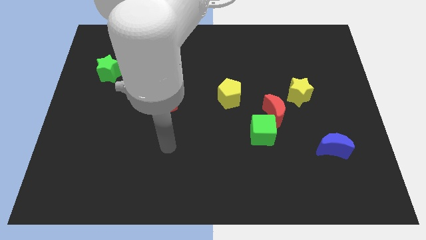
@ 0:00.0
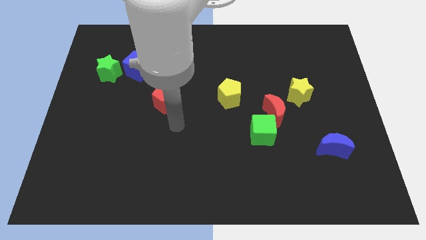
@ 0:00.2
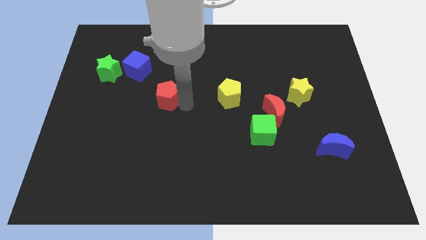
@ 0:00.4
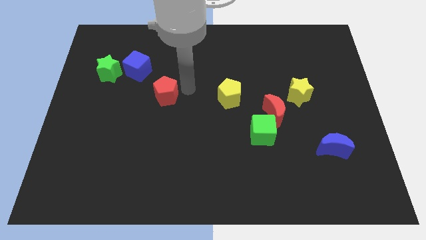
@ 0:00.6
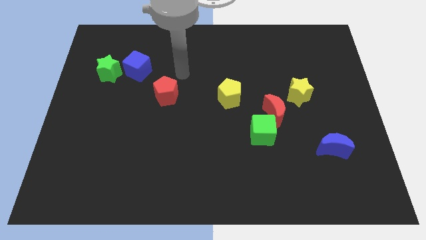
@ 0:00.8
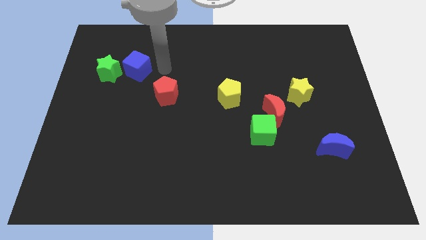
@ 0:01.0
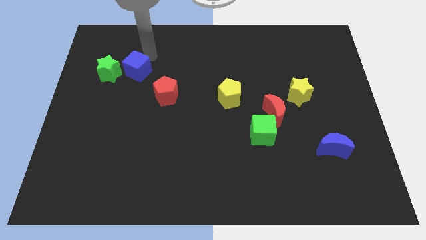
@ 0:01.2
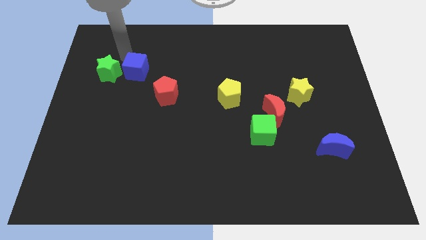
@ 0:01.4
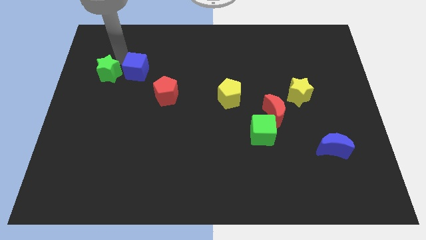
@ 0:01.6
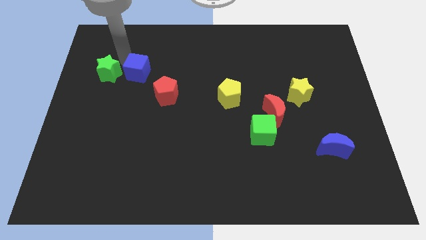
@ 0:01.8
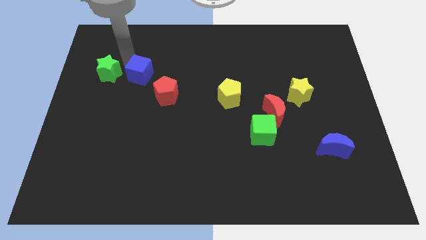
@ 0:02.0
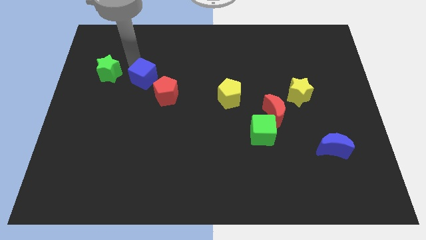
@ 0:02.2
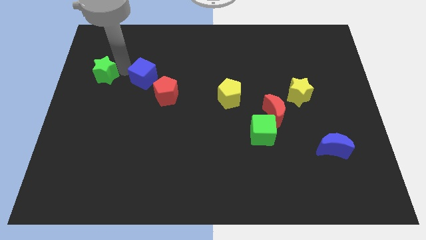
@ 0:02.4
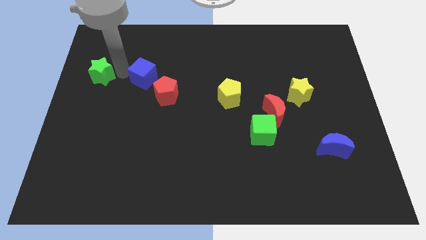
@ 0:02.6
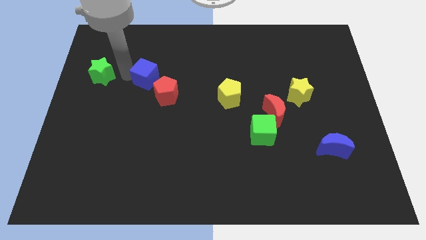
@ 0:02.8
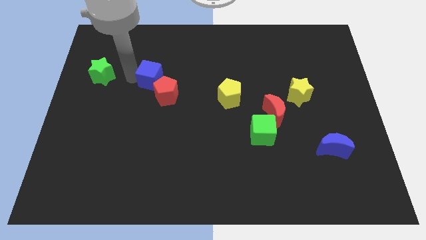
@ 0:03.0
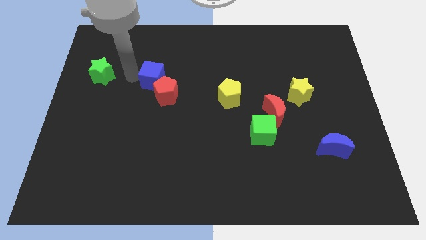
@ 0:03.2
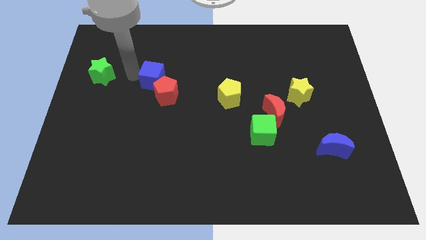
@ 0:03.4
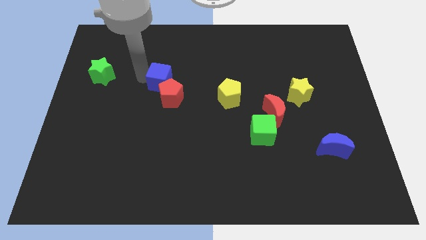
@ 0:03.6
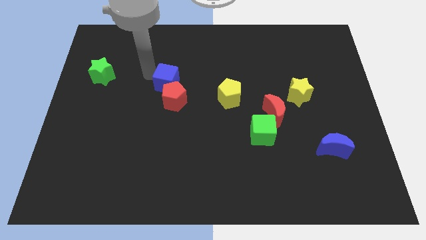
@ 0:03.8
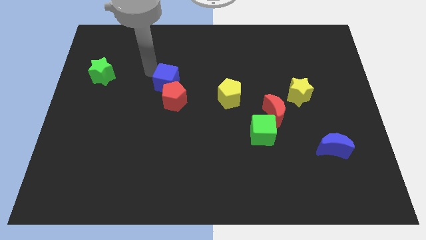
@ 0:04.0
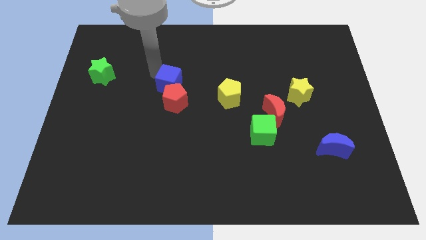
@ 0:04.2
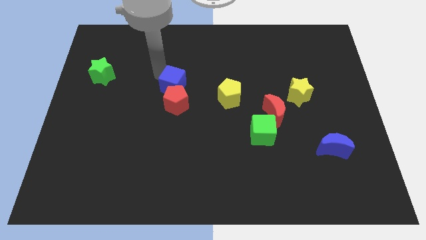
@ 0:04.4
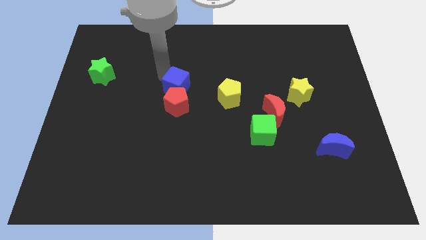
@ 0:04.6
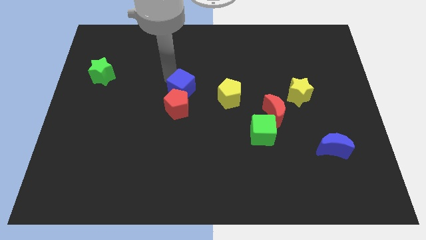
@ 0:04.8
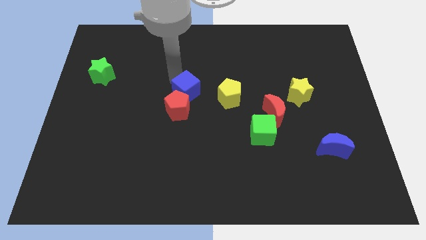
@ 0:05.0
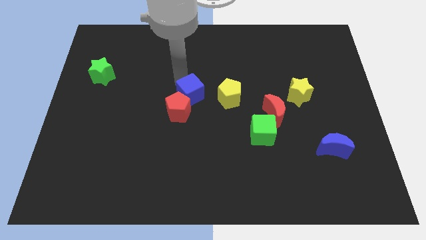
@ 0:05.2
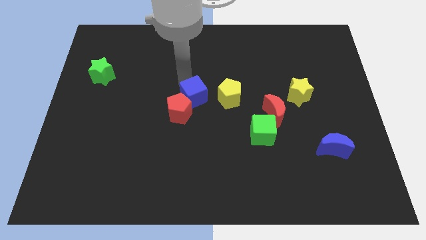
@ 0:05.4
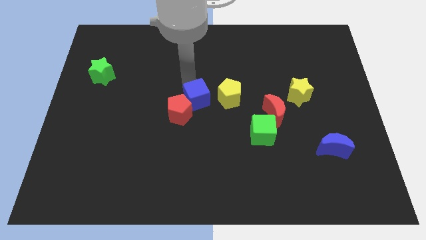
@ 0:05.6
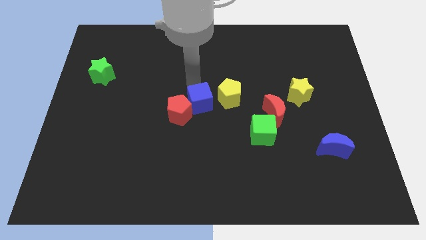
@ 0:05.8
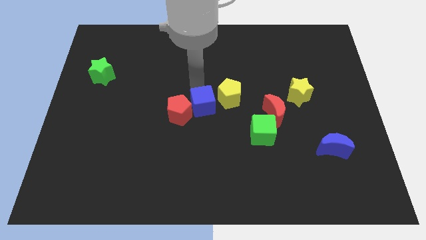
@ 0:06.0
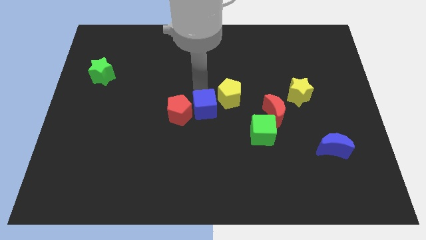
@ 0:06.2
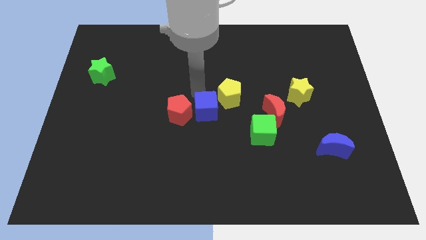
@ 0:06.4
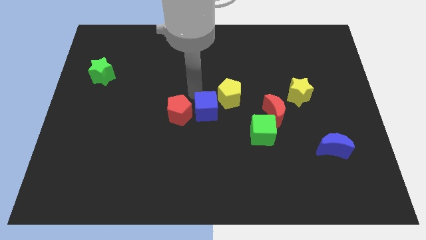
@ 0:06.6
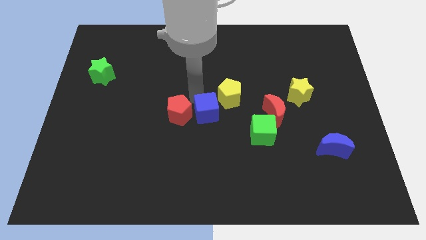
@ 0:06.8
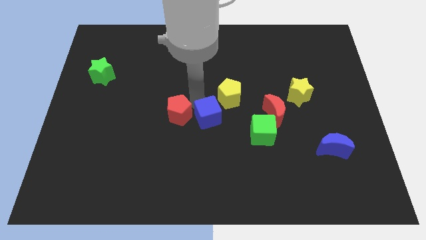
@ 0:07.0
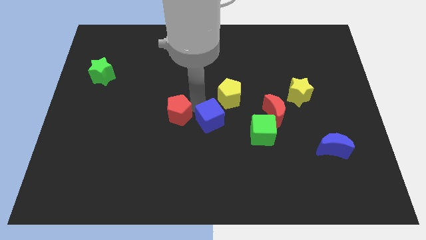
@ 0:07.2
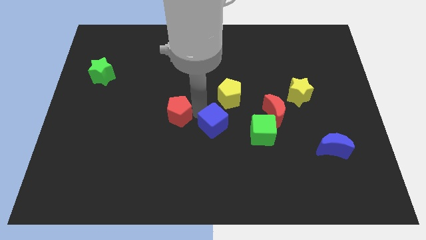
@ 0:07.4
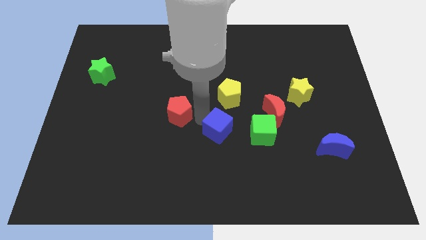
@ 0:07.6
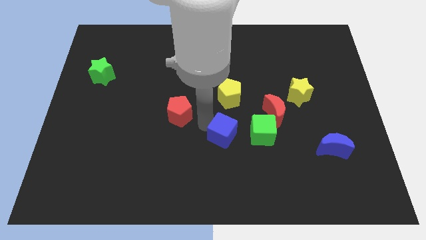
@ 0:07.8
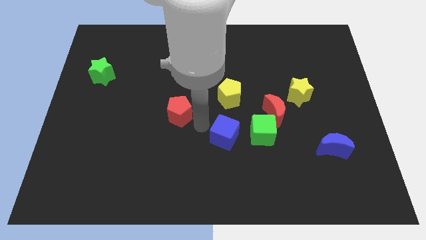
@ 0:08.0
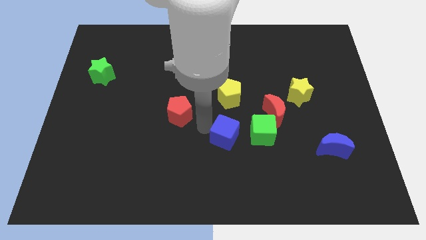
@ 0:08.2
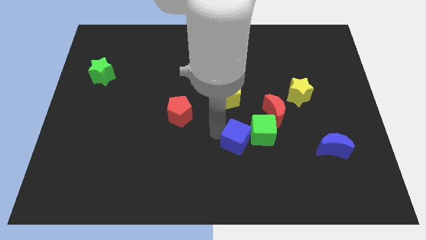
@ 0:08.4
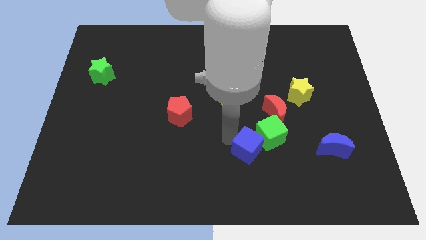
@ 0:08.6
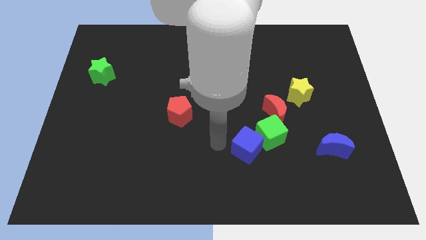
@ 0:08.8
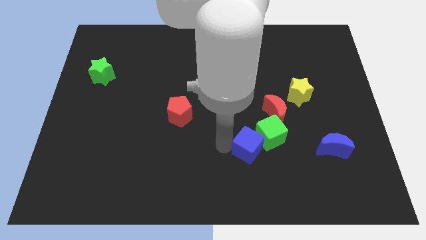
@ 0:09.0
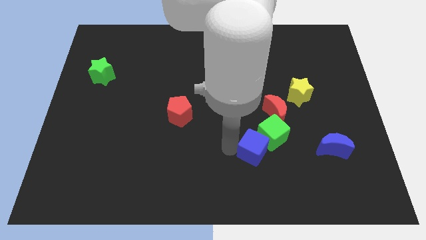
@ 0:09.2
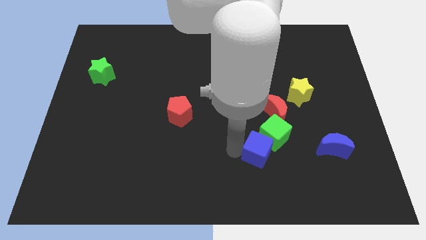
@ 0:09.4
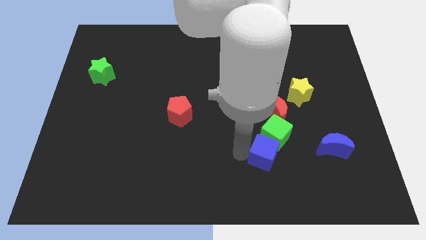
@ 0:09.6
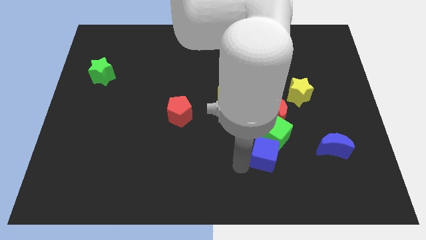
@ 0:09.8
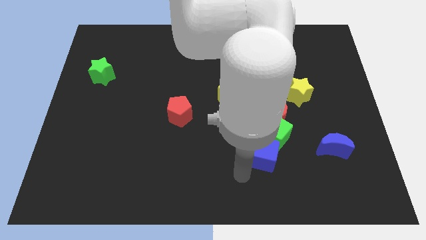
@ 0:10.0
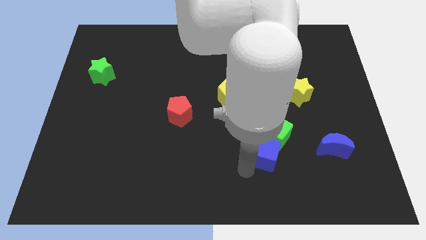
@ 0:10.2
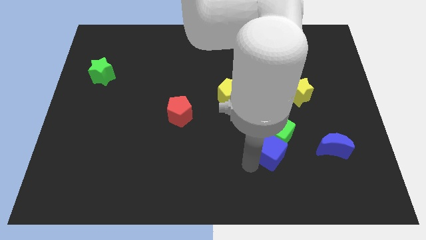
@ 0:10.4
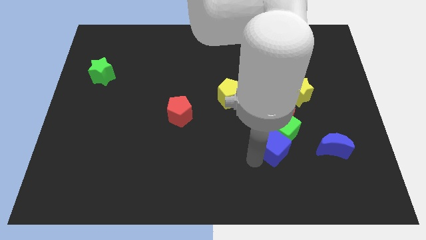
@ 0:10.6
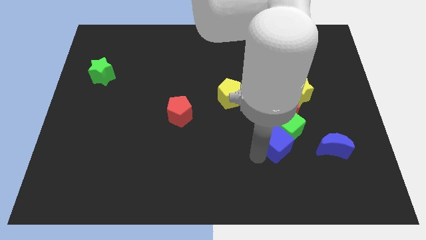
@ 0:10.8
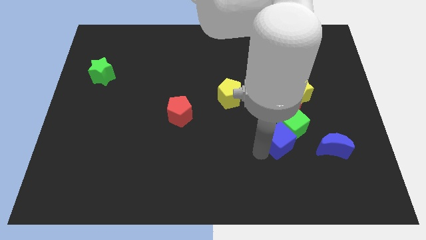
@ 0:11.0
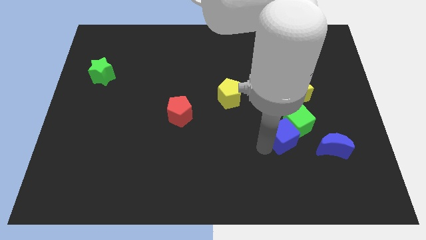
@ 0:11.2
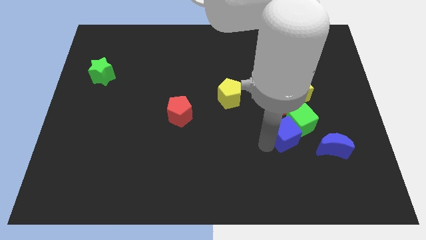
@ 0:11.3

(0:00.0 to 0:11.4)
move the blue cube below the yellow star

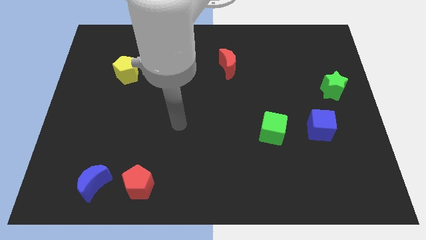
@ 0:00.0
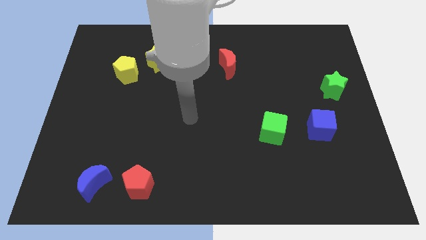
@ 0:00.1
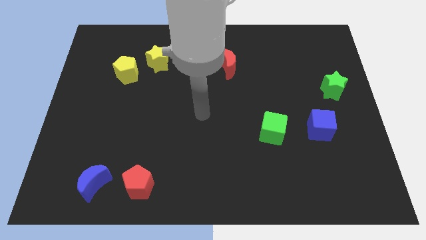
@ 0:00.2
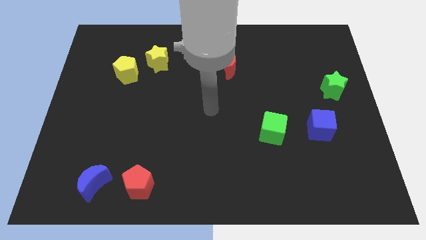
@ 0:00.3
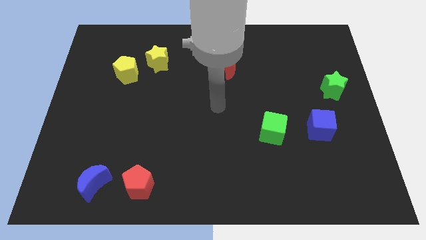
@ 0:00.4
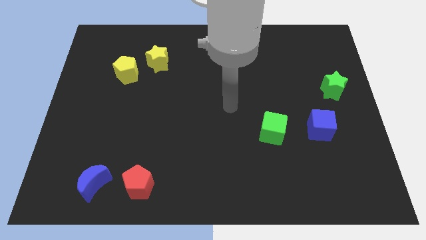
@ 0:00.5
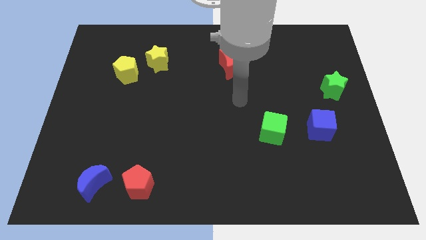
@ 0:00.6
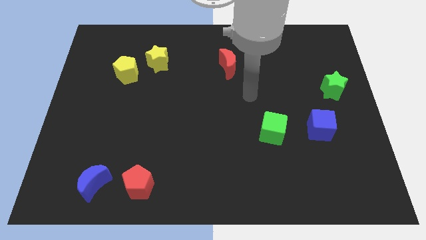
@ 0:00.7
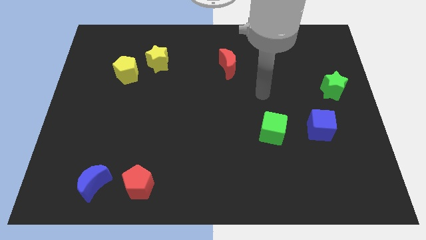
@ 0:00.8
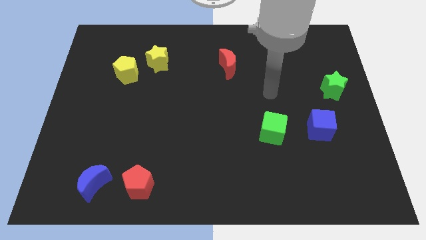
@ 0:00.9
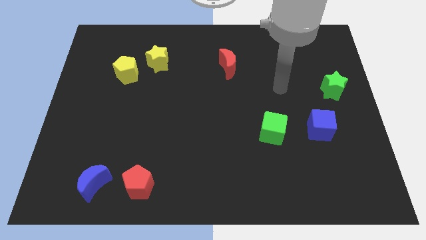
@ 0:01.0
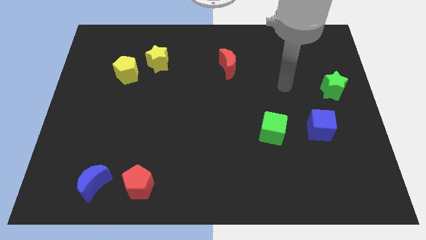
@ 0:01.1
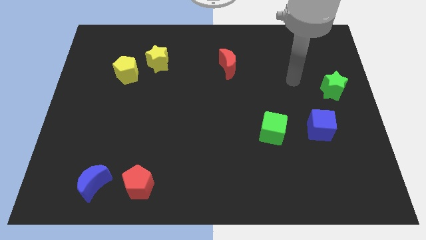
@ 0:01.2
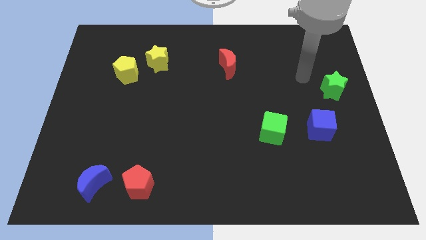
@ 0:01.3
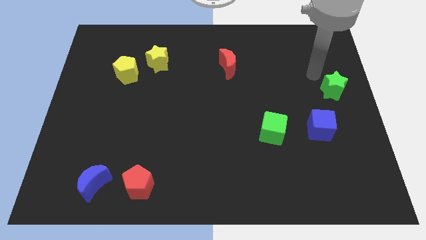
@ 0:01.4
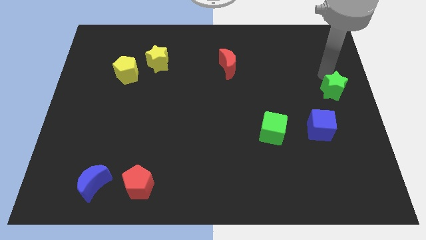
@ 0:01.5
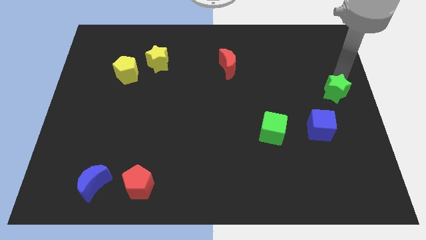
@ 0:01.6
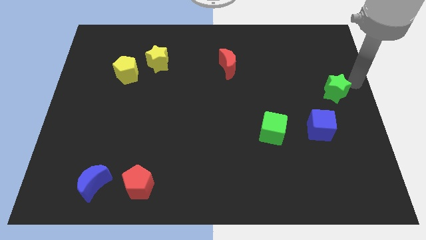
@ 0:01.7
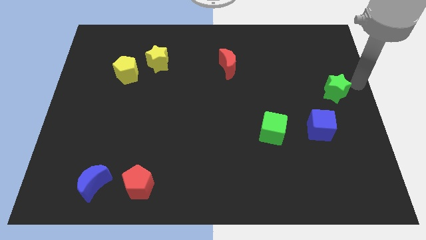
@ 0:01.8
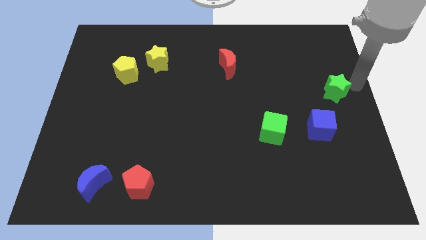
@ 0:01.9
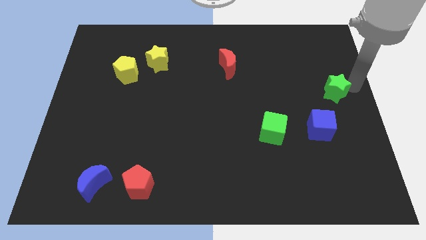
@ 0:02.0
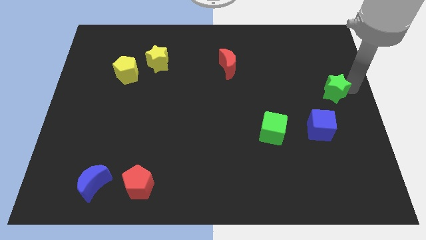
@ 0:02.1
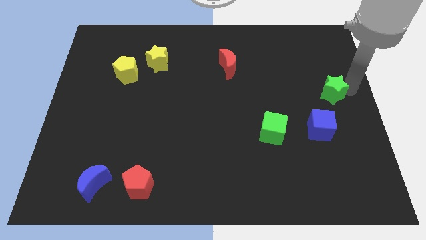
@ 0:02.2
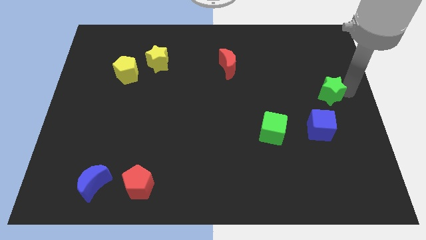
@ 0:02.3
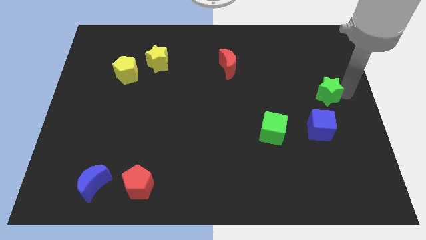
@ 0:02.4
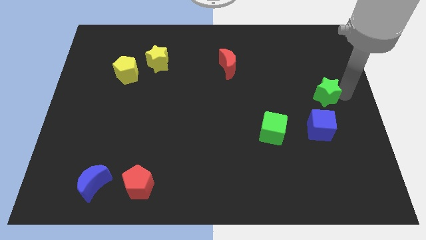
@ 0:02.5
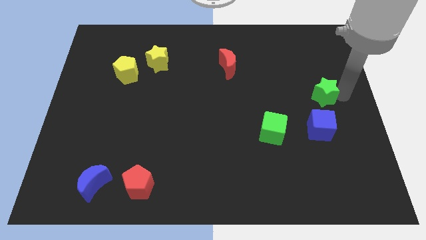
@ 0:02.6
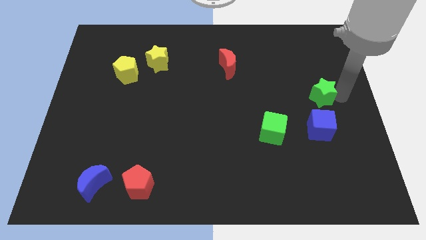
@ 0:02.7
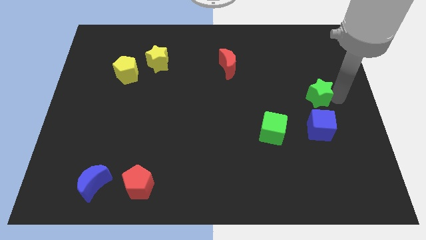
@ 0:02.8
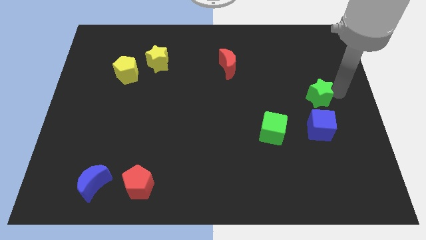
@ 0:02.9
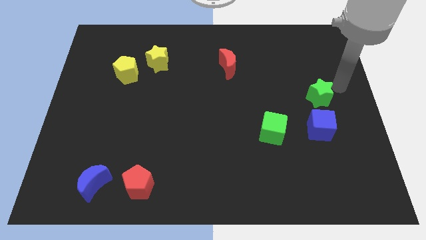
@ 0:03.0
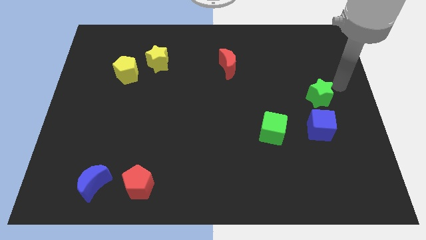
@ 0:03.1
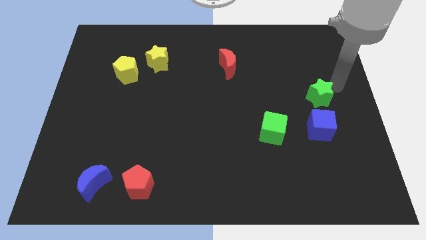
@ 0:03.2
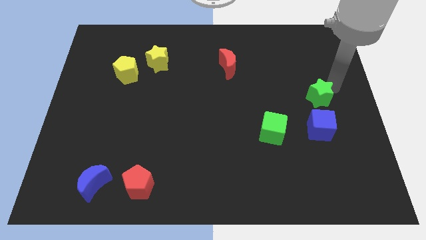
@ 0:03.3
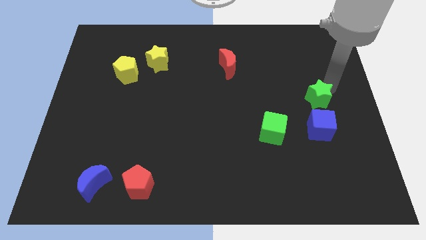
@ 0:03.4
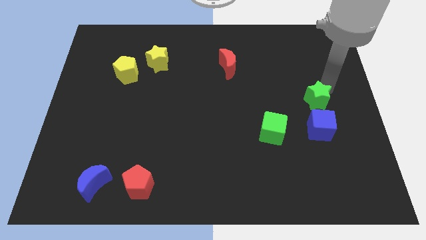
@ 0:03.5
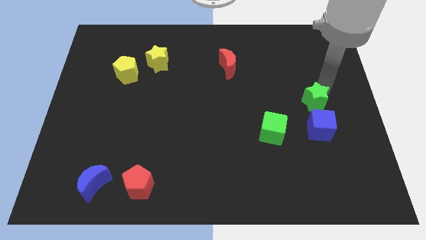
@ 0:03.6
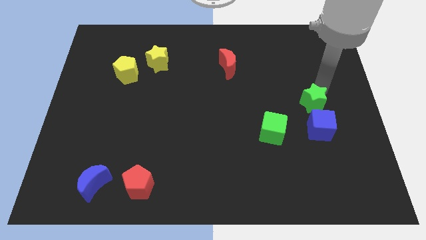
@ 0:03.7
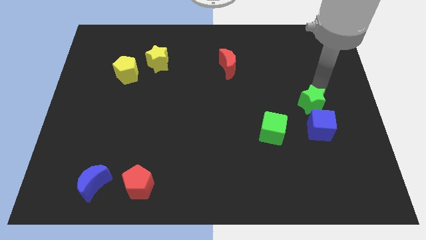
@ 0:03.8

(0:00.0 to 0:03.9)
slide the green star diagonally up and to the left of the blue cube
